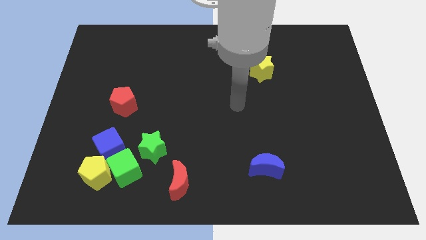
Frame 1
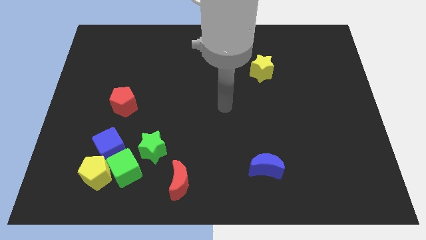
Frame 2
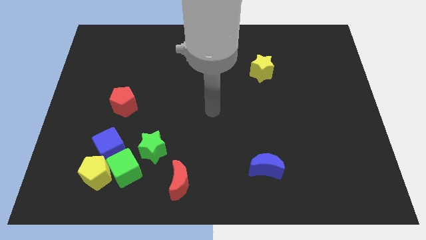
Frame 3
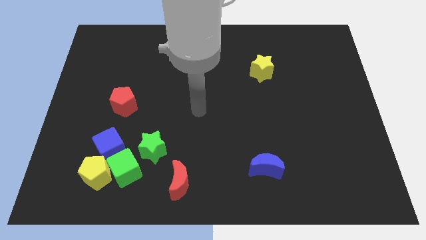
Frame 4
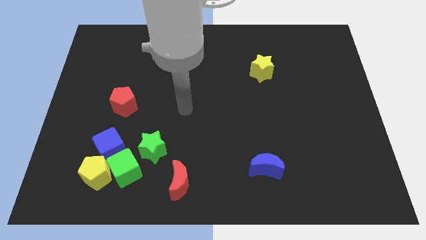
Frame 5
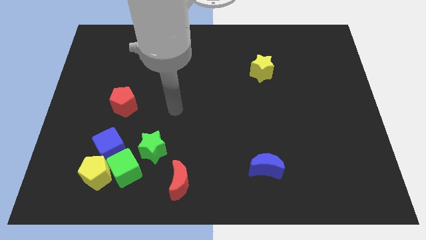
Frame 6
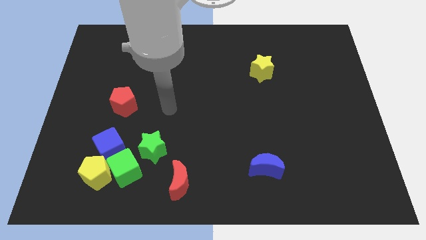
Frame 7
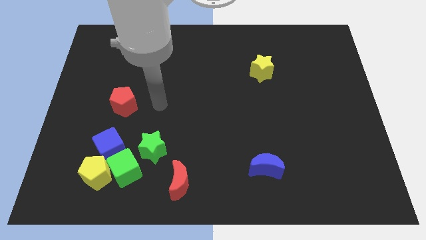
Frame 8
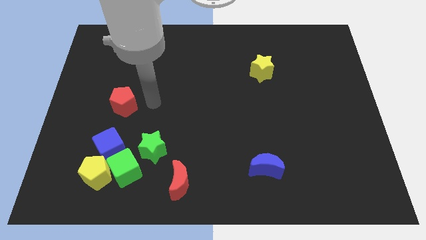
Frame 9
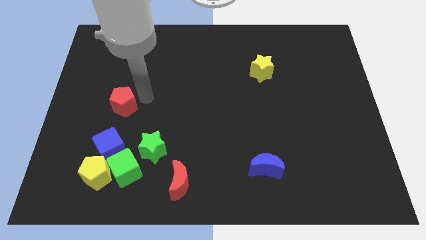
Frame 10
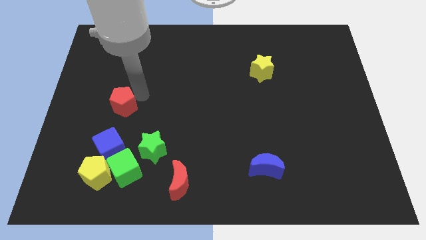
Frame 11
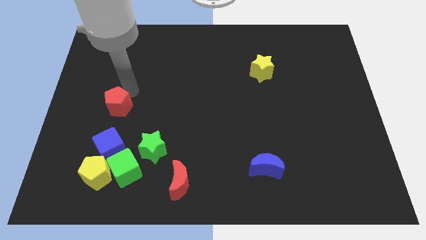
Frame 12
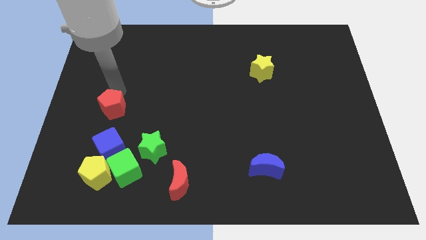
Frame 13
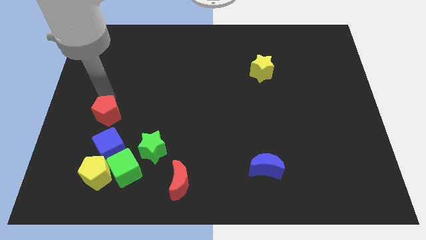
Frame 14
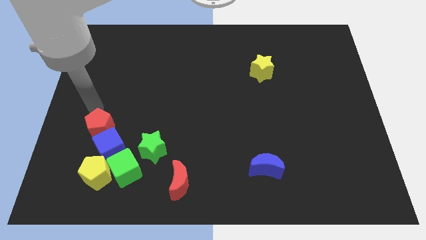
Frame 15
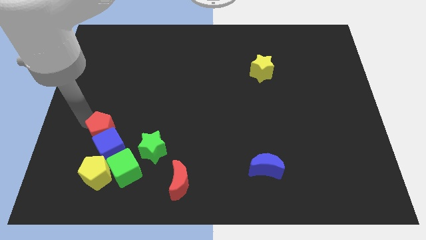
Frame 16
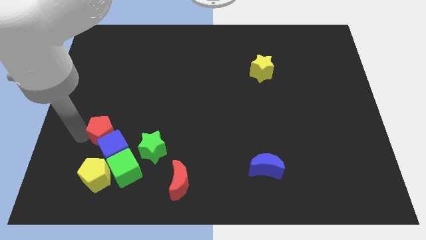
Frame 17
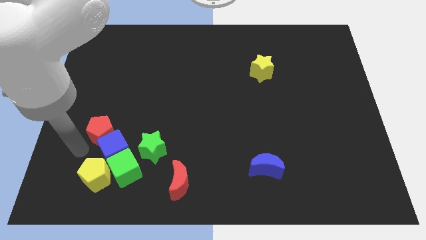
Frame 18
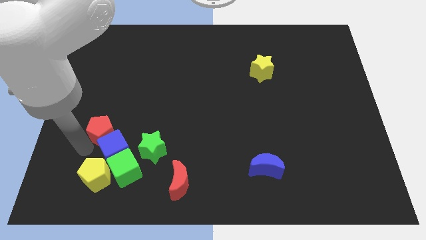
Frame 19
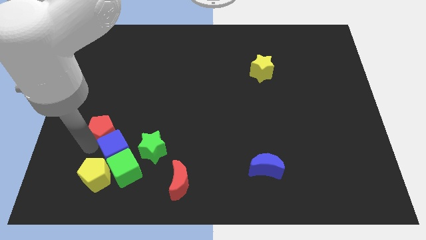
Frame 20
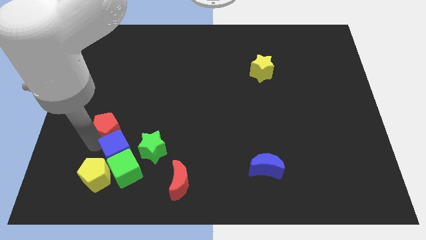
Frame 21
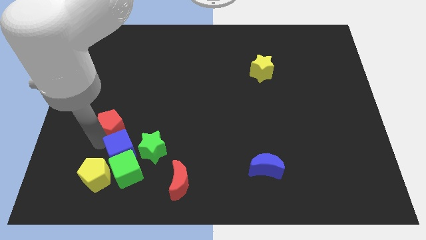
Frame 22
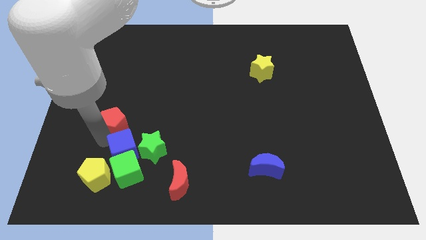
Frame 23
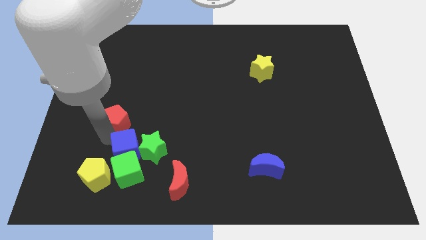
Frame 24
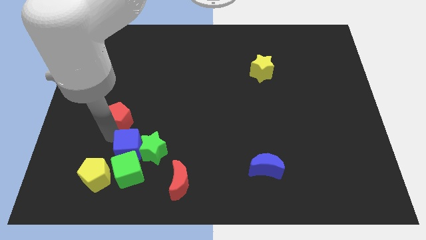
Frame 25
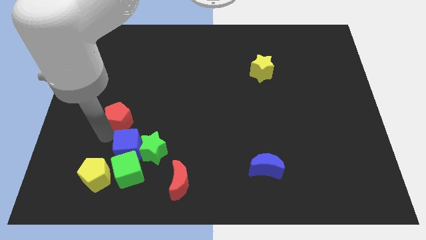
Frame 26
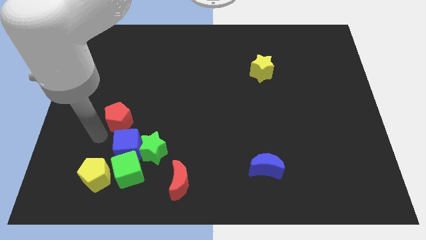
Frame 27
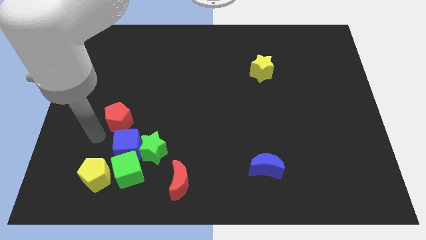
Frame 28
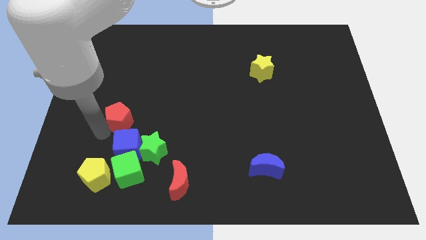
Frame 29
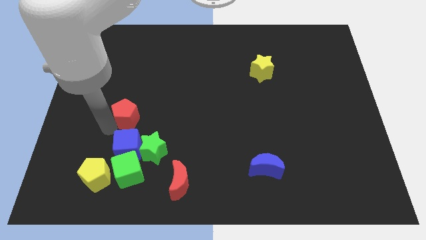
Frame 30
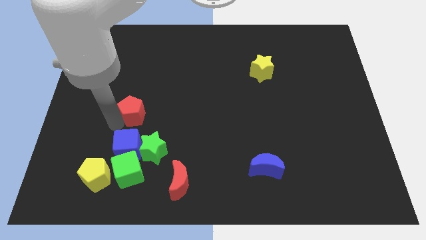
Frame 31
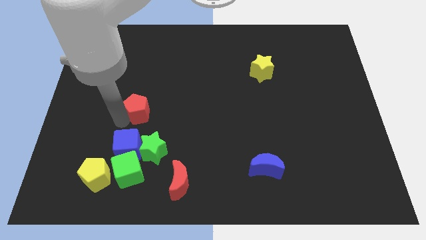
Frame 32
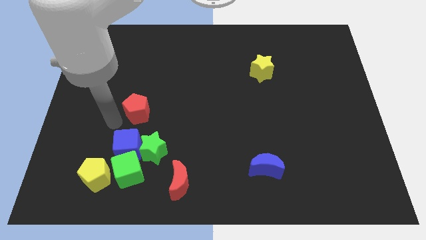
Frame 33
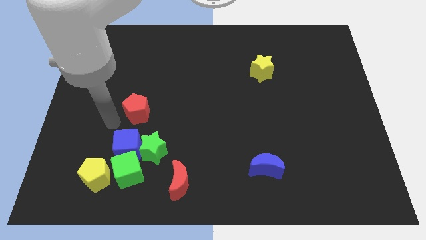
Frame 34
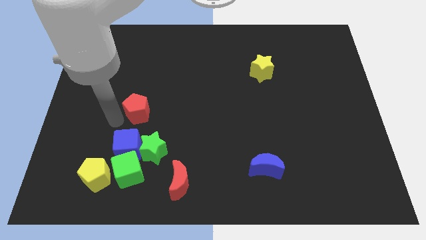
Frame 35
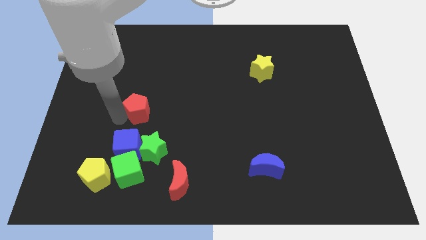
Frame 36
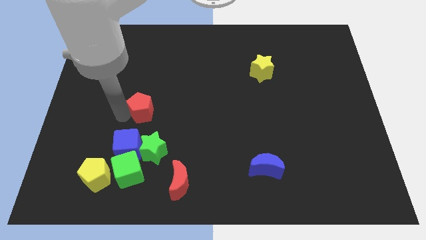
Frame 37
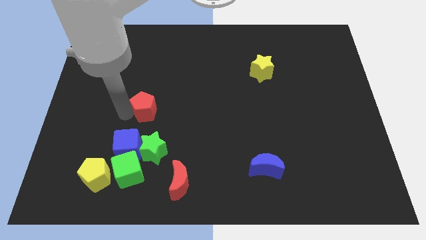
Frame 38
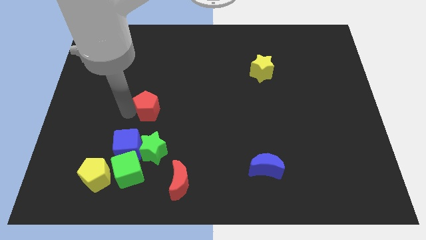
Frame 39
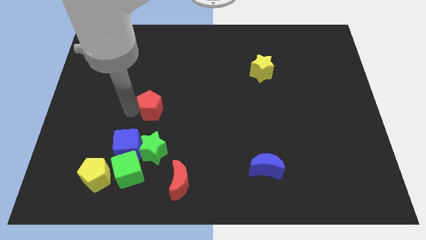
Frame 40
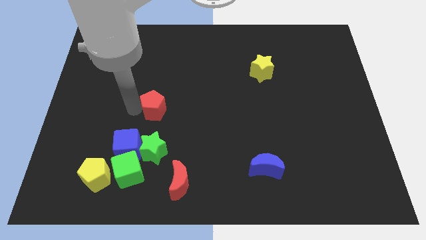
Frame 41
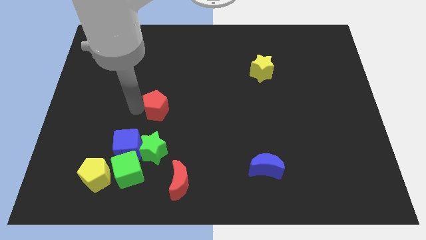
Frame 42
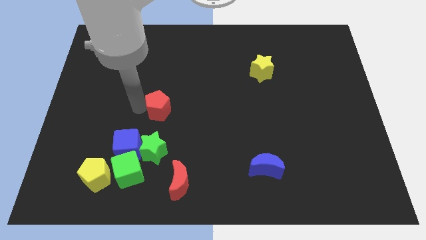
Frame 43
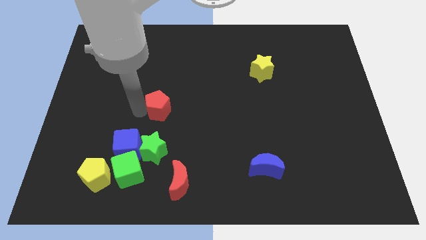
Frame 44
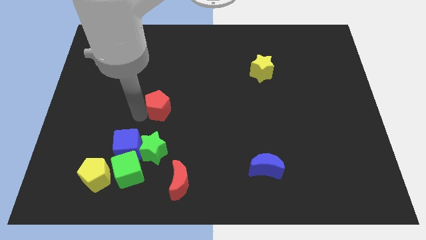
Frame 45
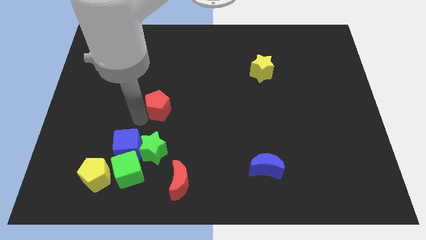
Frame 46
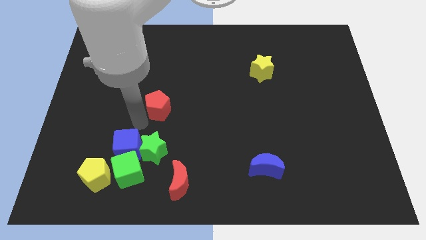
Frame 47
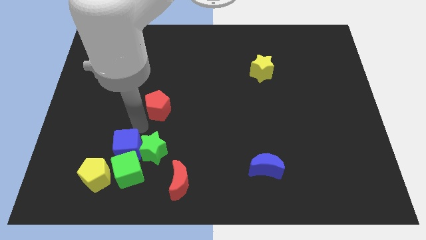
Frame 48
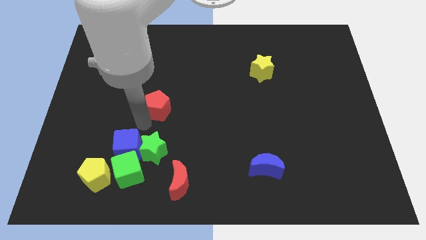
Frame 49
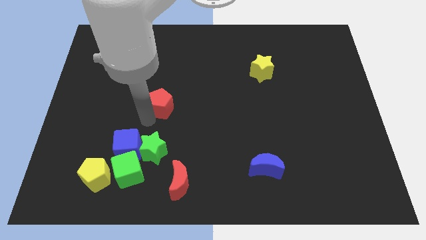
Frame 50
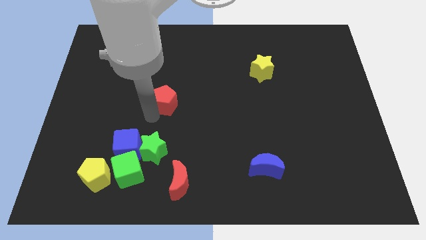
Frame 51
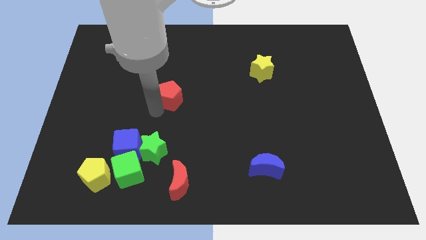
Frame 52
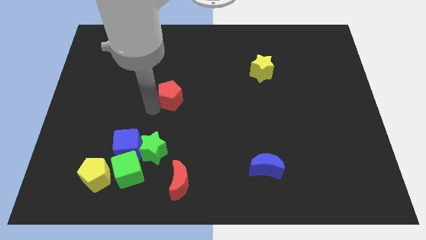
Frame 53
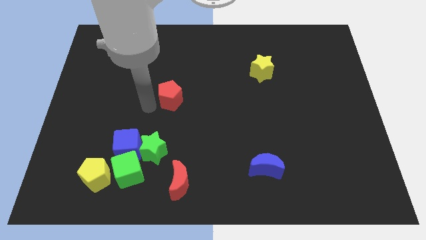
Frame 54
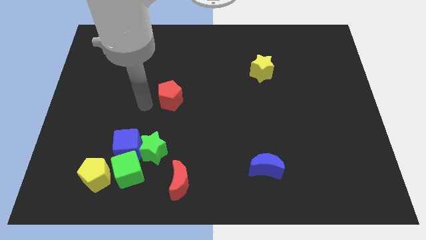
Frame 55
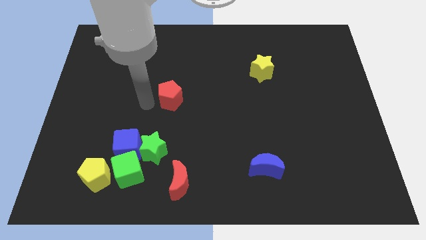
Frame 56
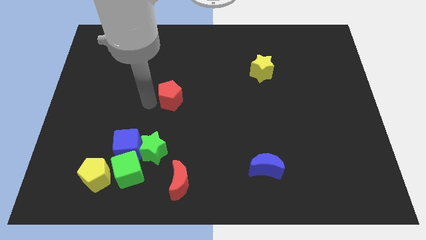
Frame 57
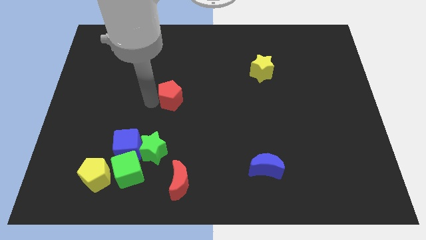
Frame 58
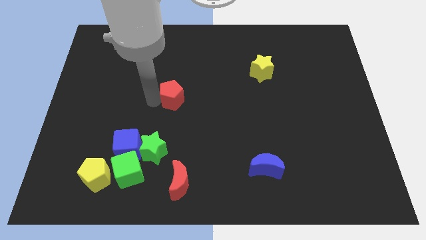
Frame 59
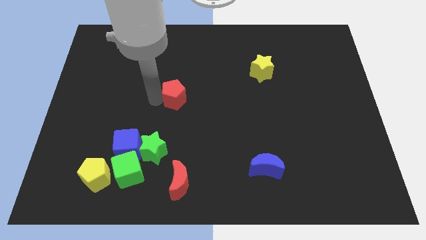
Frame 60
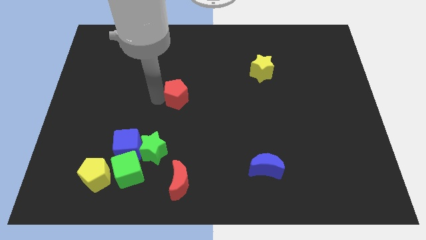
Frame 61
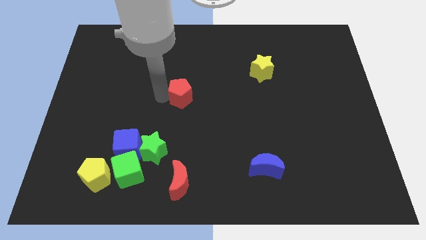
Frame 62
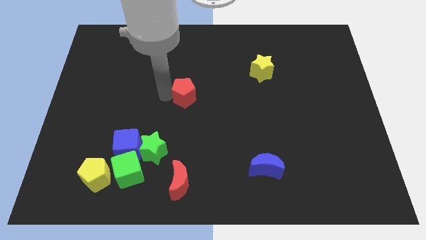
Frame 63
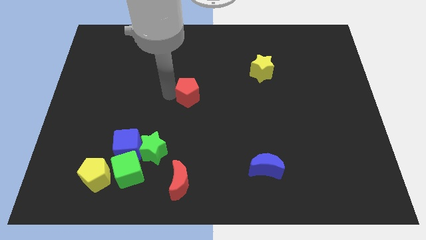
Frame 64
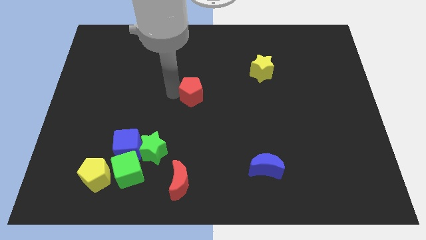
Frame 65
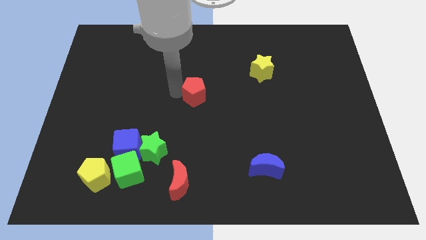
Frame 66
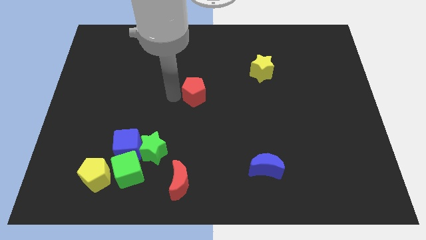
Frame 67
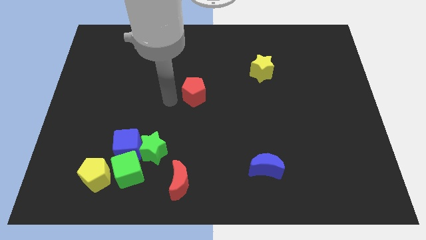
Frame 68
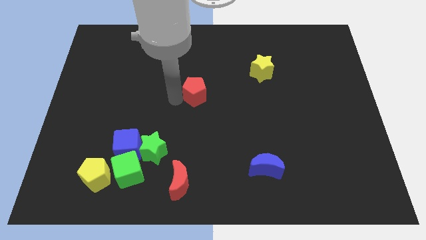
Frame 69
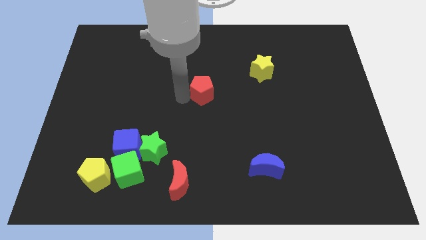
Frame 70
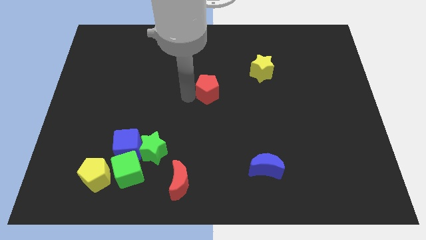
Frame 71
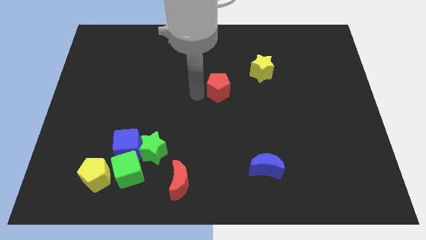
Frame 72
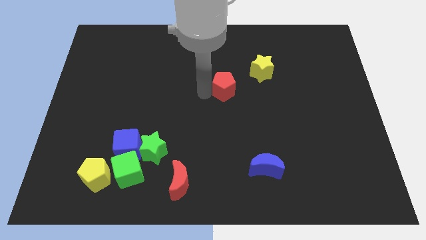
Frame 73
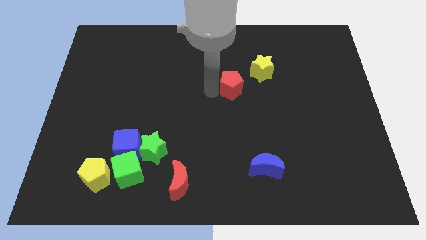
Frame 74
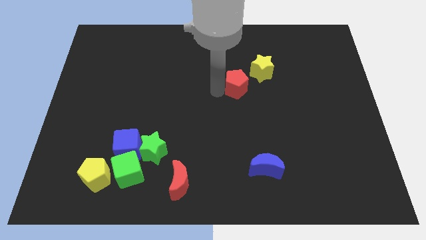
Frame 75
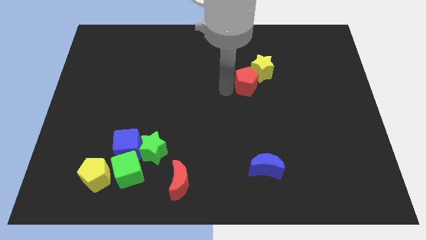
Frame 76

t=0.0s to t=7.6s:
move the red pentagon towards the yellow star

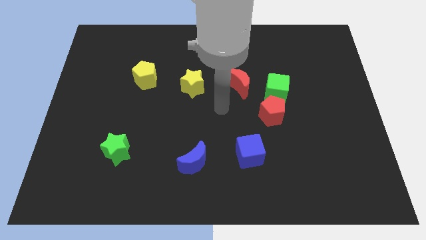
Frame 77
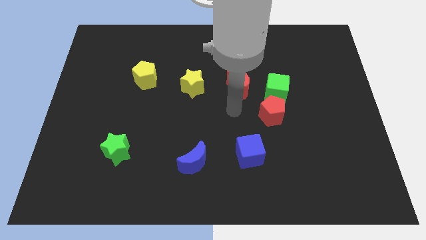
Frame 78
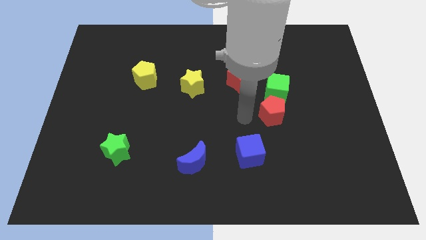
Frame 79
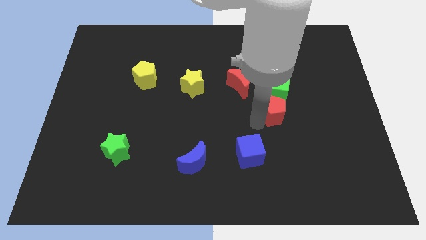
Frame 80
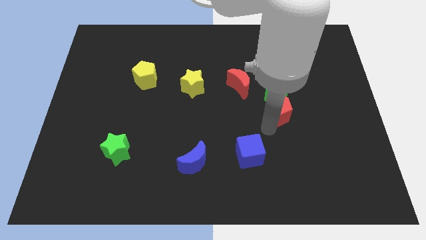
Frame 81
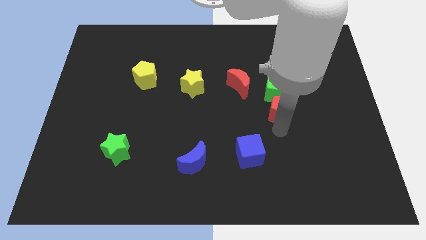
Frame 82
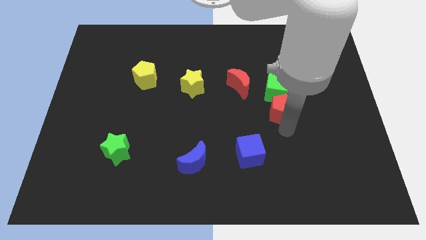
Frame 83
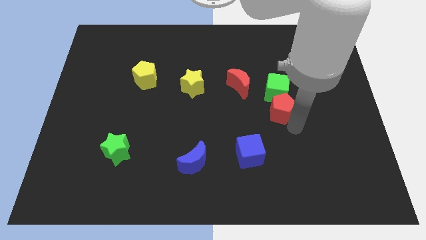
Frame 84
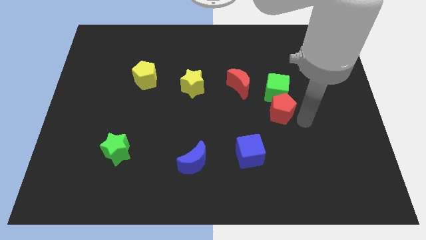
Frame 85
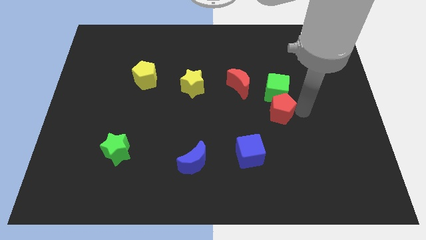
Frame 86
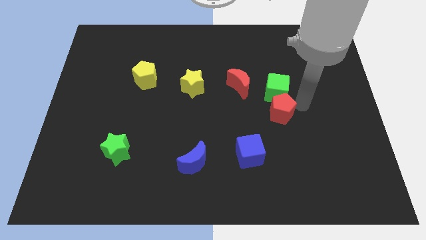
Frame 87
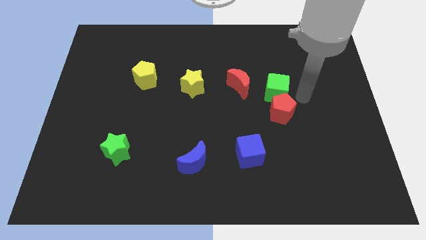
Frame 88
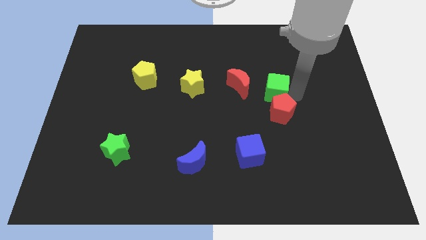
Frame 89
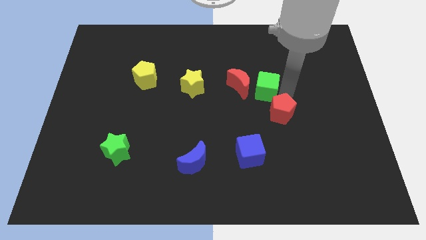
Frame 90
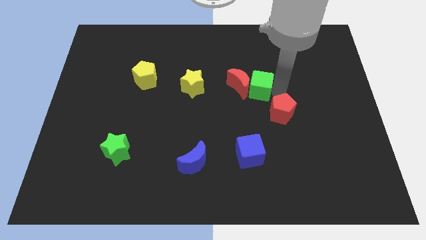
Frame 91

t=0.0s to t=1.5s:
push the green cube close to the red moon
